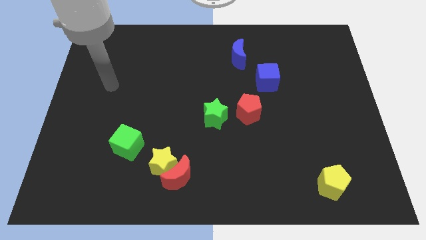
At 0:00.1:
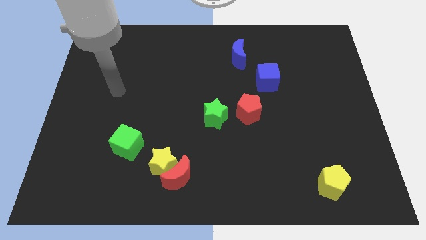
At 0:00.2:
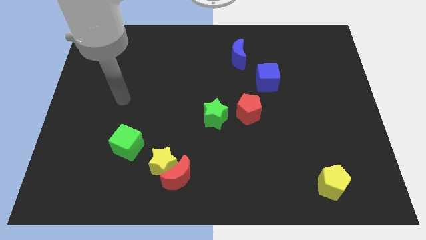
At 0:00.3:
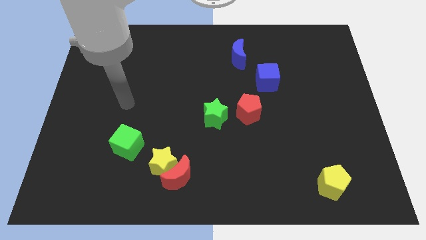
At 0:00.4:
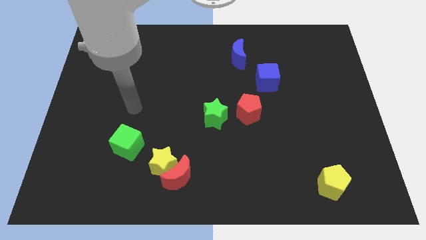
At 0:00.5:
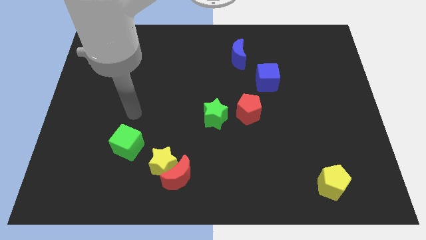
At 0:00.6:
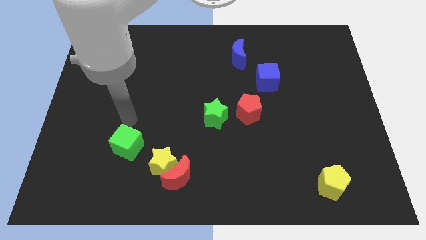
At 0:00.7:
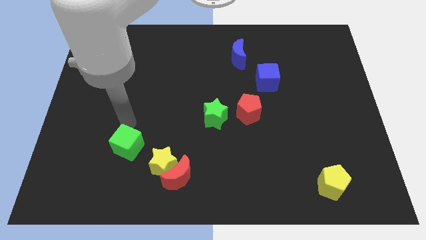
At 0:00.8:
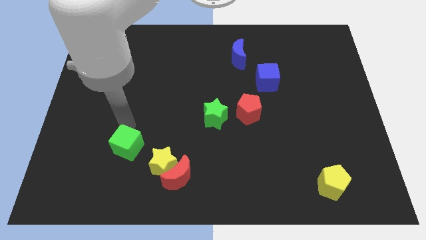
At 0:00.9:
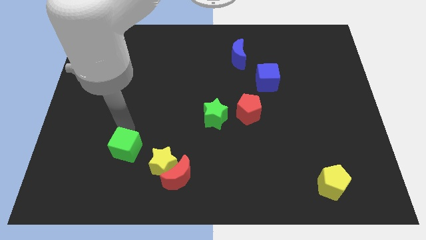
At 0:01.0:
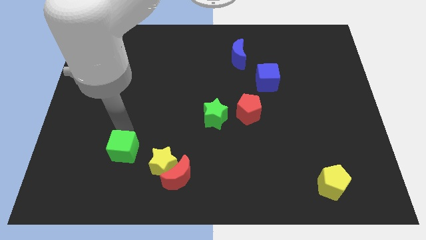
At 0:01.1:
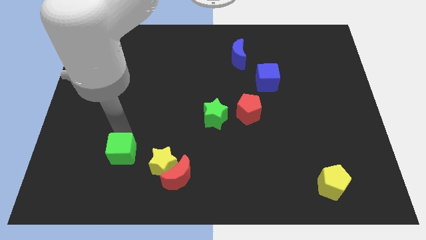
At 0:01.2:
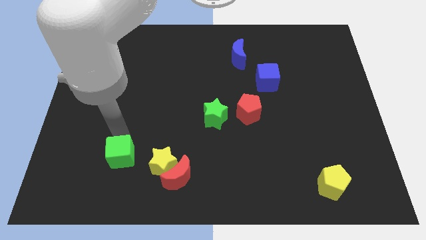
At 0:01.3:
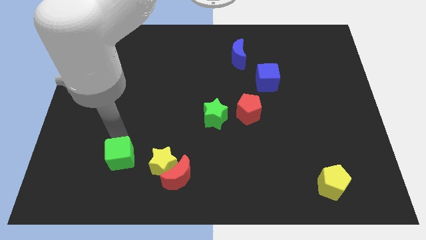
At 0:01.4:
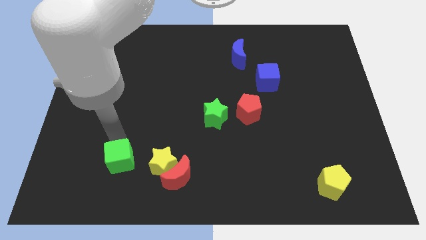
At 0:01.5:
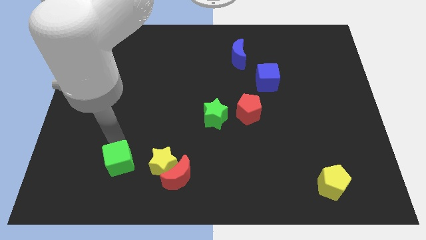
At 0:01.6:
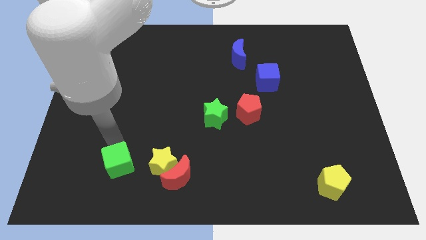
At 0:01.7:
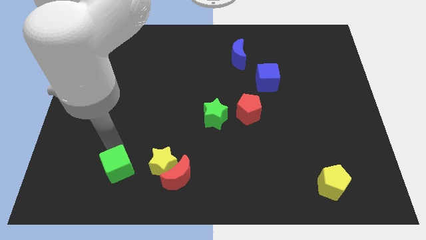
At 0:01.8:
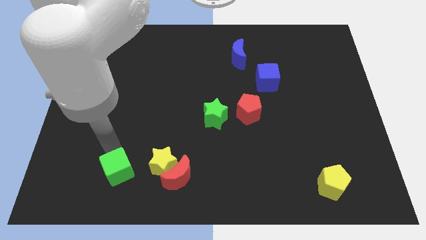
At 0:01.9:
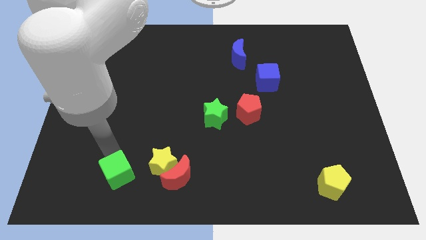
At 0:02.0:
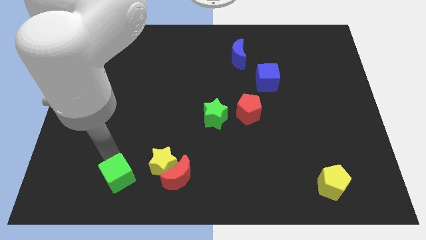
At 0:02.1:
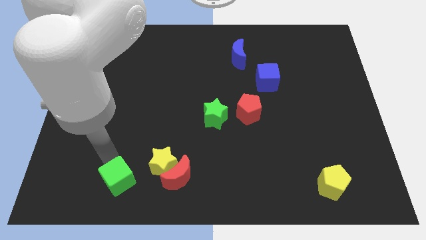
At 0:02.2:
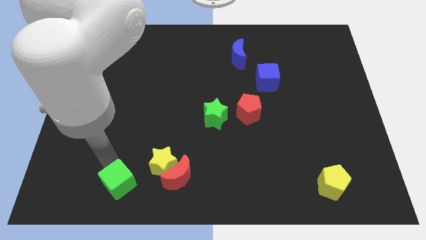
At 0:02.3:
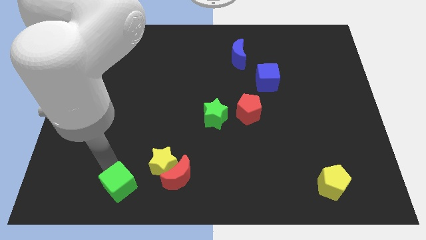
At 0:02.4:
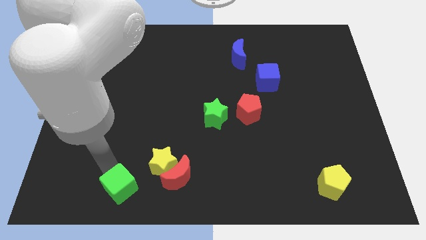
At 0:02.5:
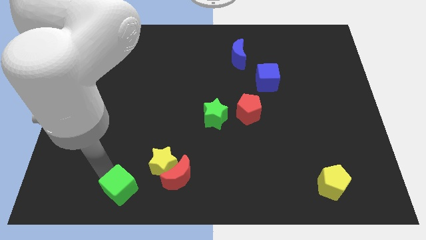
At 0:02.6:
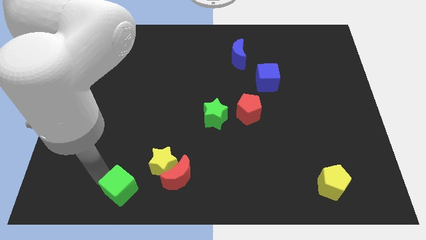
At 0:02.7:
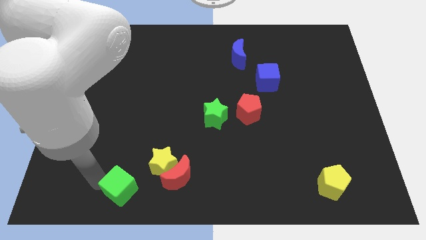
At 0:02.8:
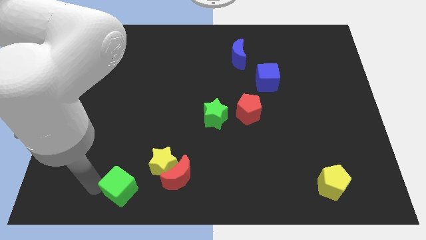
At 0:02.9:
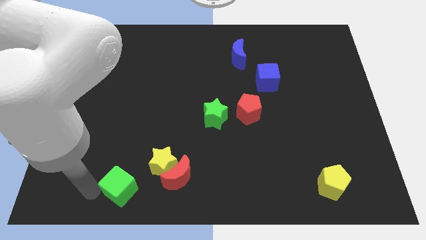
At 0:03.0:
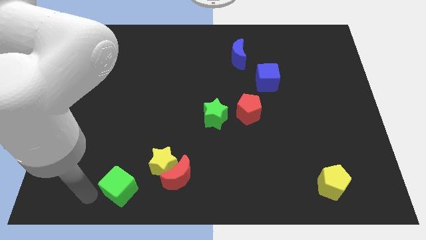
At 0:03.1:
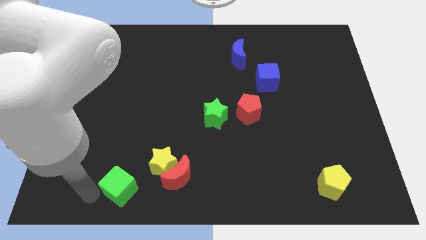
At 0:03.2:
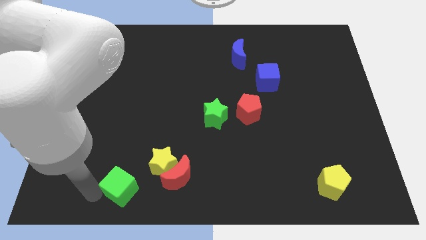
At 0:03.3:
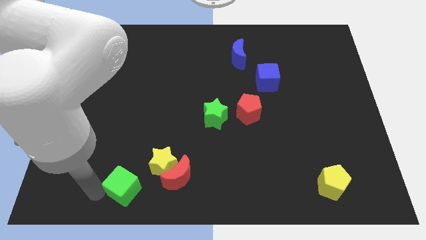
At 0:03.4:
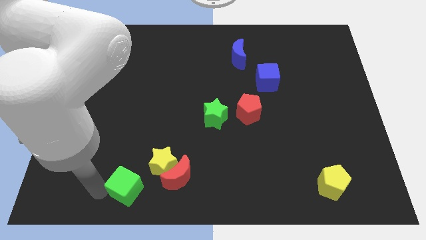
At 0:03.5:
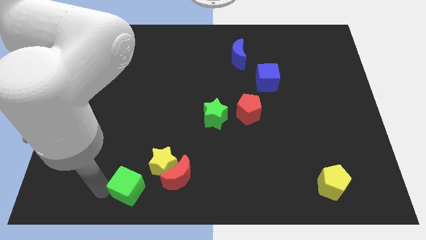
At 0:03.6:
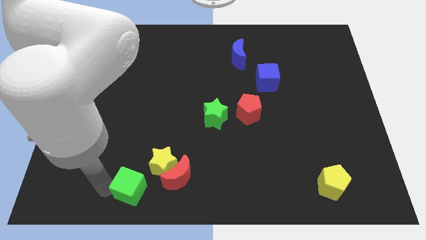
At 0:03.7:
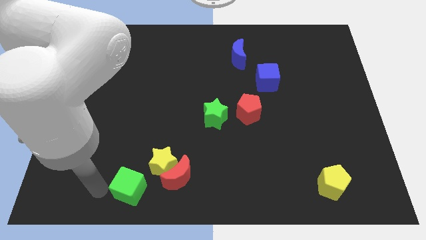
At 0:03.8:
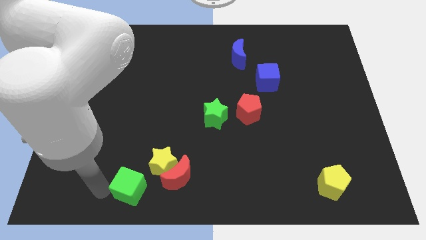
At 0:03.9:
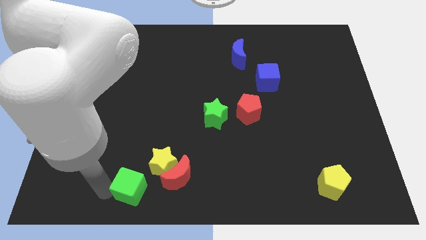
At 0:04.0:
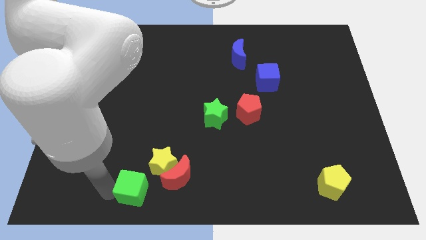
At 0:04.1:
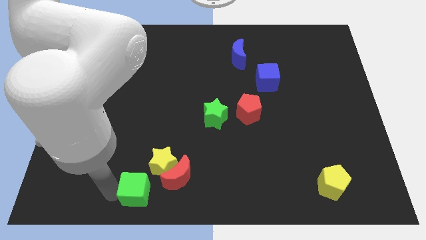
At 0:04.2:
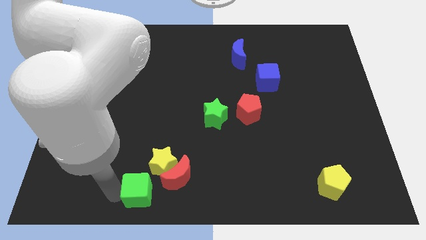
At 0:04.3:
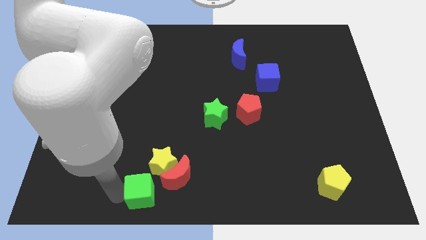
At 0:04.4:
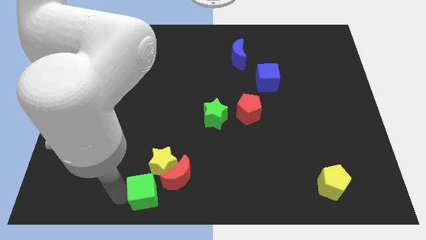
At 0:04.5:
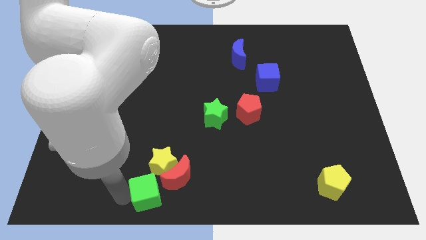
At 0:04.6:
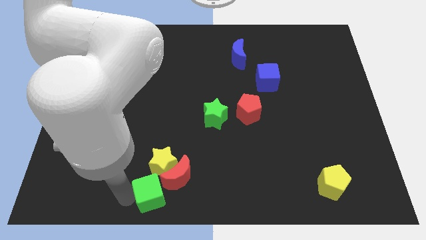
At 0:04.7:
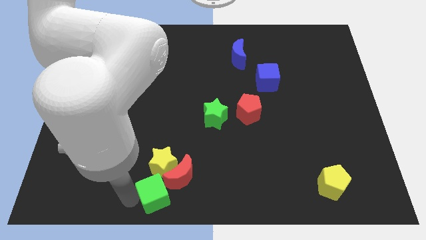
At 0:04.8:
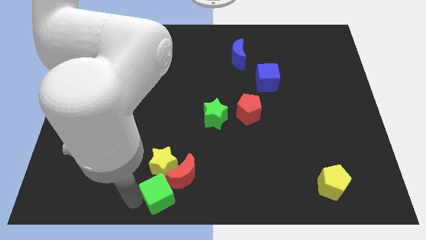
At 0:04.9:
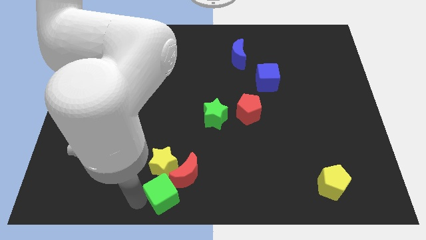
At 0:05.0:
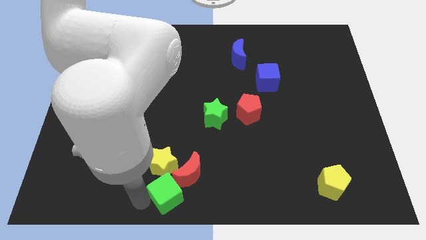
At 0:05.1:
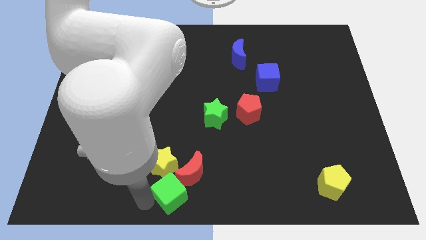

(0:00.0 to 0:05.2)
slide the green cube close to the red moon

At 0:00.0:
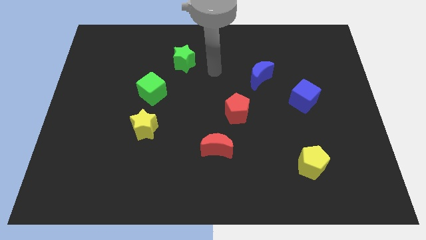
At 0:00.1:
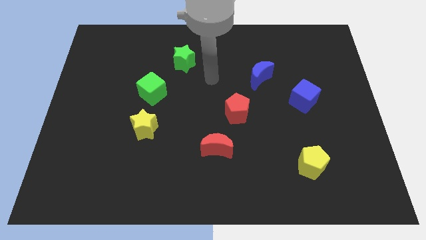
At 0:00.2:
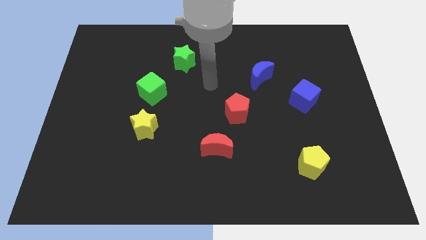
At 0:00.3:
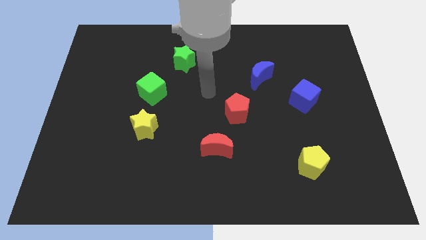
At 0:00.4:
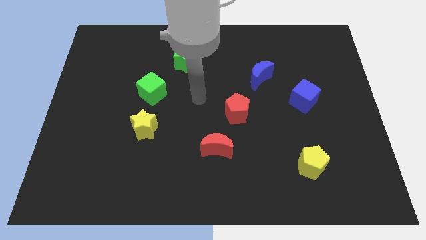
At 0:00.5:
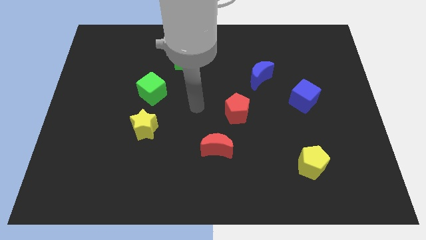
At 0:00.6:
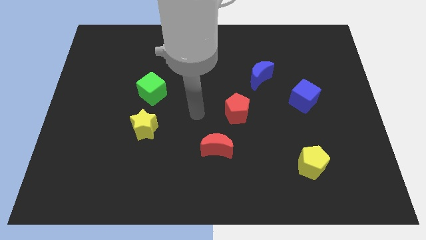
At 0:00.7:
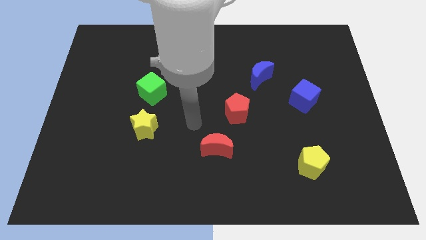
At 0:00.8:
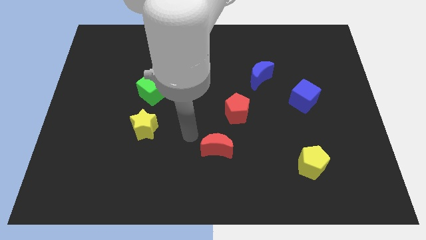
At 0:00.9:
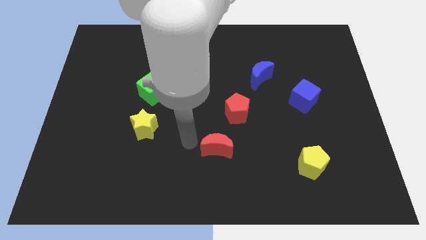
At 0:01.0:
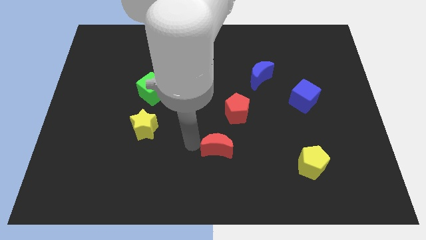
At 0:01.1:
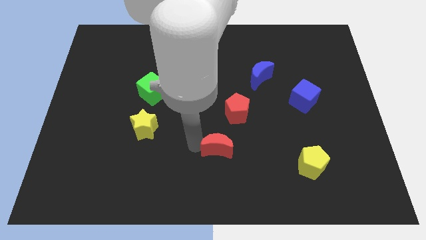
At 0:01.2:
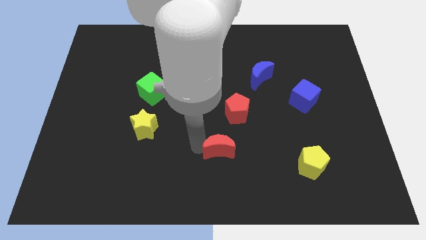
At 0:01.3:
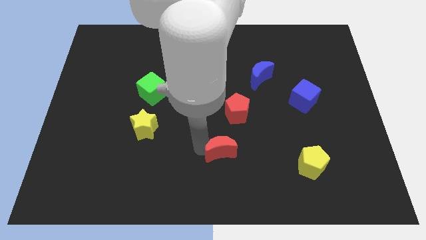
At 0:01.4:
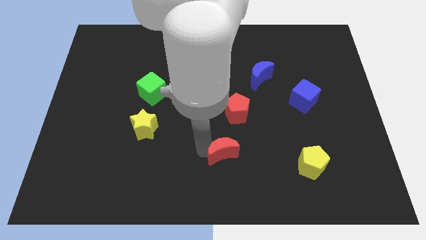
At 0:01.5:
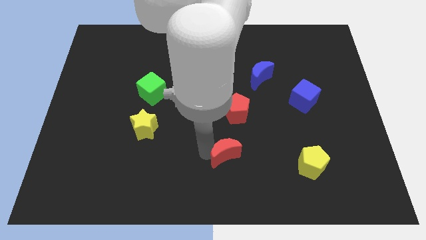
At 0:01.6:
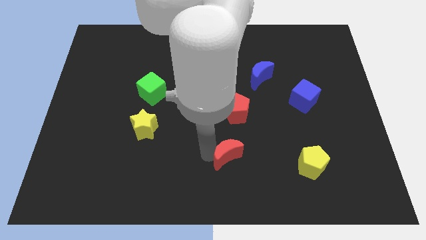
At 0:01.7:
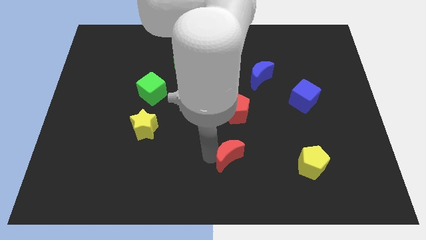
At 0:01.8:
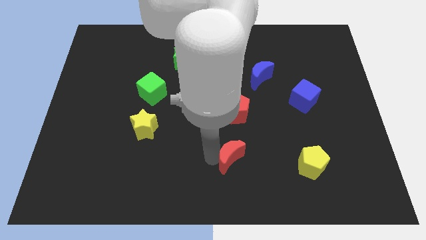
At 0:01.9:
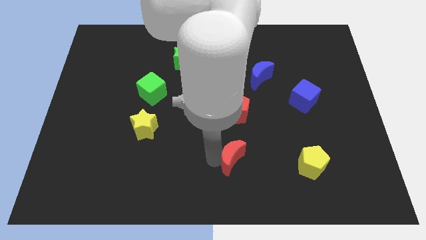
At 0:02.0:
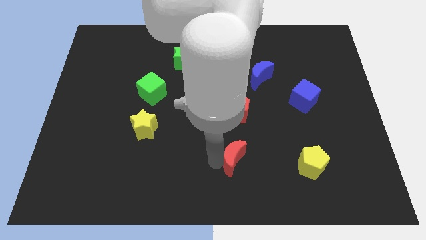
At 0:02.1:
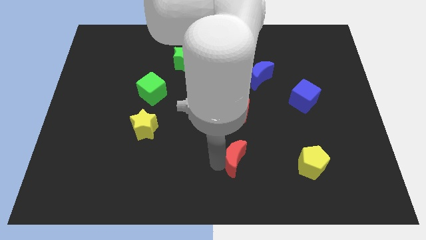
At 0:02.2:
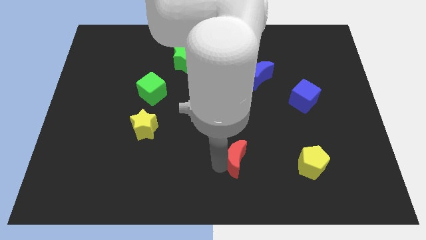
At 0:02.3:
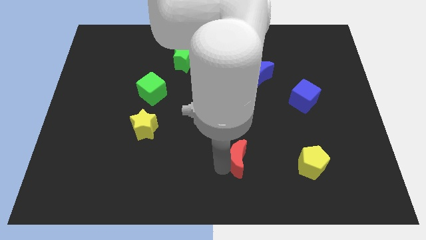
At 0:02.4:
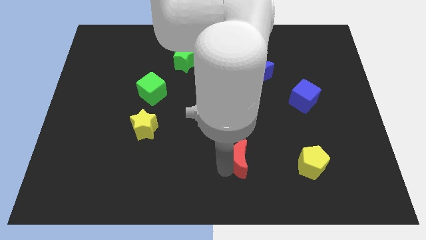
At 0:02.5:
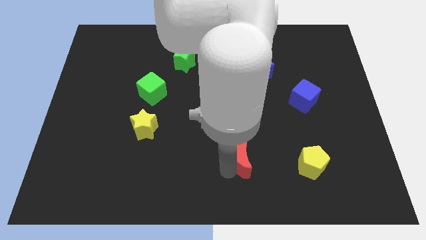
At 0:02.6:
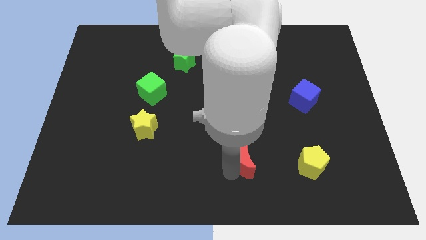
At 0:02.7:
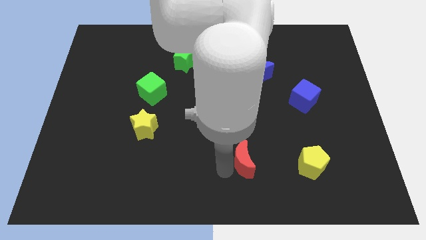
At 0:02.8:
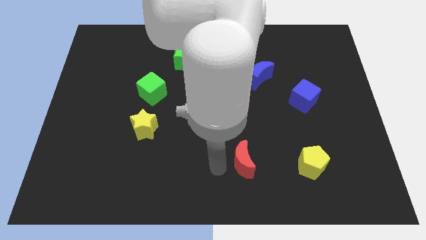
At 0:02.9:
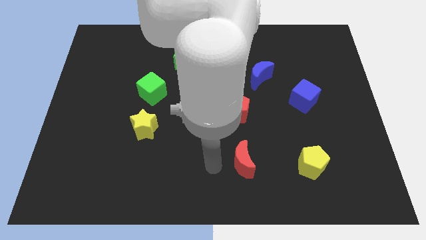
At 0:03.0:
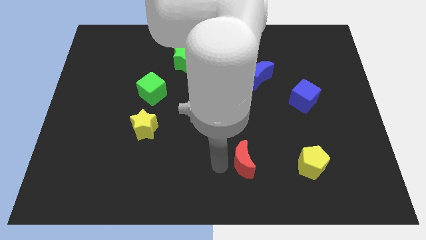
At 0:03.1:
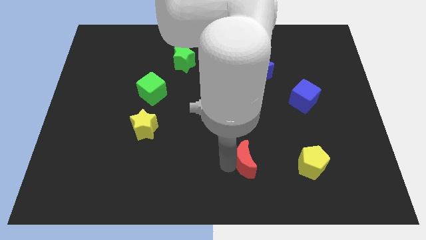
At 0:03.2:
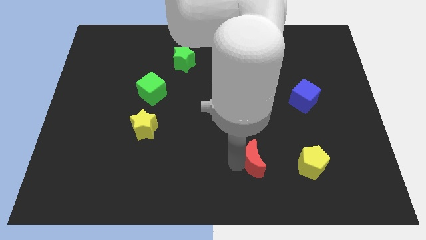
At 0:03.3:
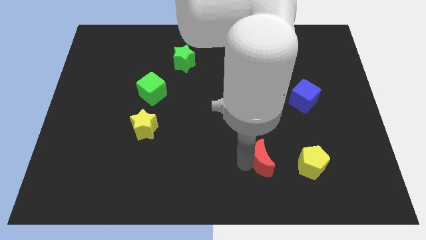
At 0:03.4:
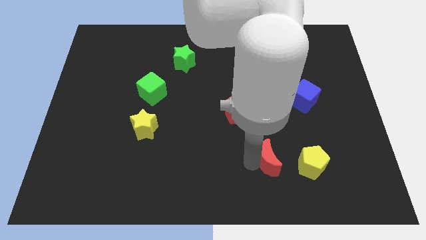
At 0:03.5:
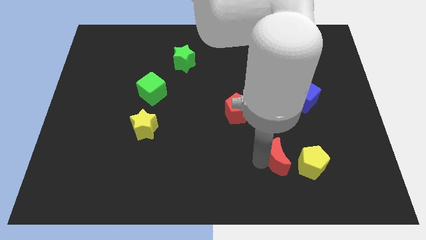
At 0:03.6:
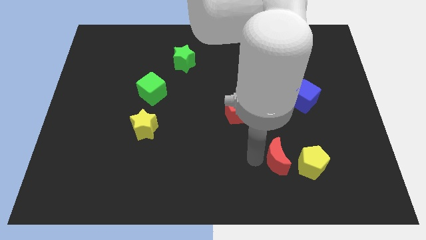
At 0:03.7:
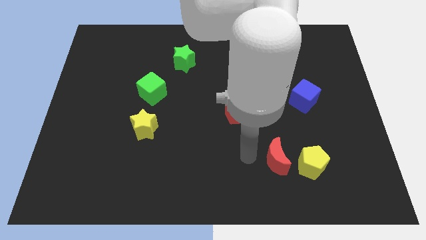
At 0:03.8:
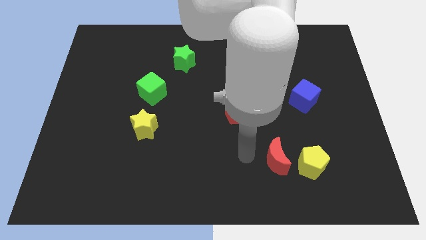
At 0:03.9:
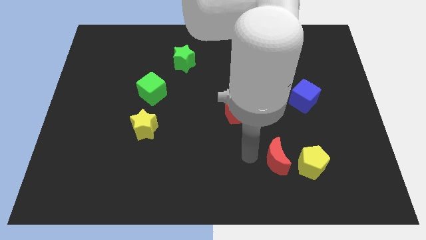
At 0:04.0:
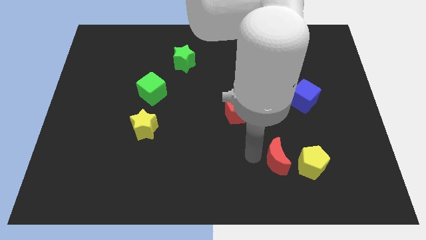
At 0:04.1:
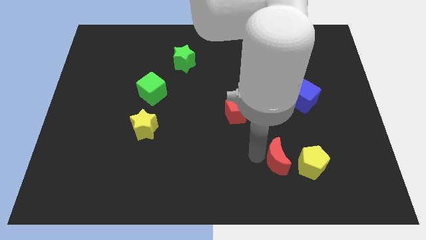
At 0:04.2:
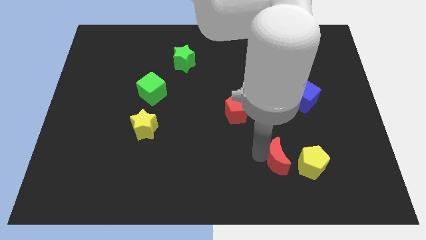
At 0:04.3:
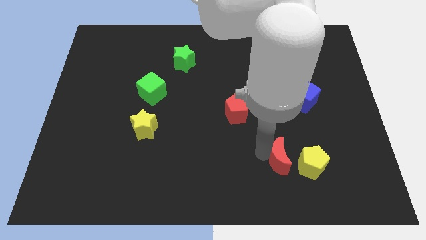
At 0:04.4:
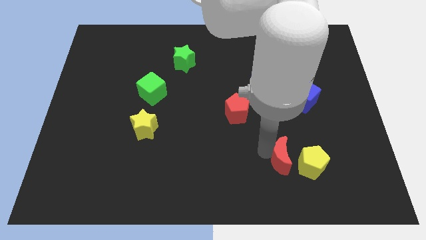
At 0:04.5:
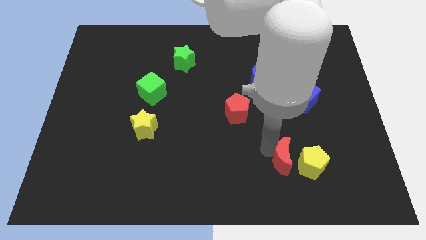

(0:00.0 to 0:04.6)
move the red moon to the yellow pentagon
